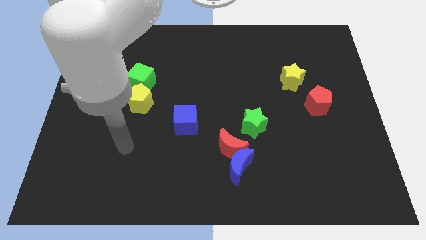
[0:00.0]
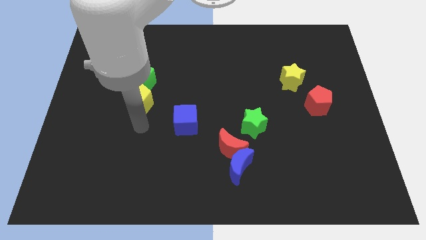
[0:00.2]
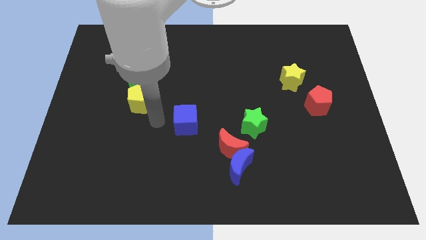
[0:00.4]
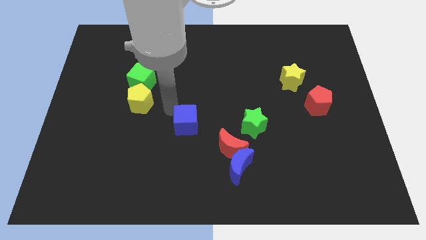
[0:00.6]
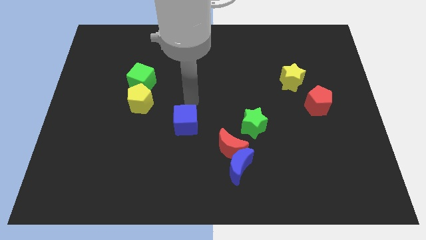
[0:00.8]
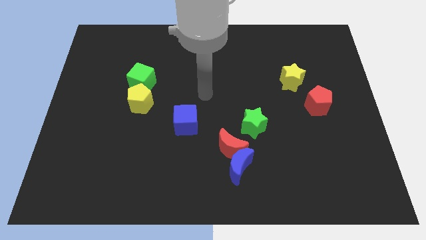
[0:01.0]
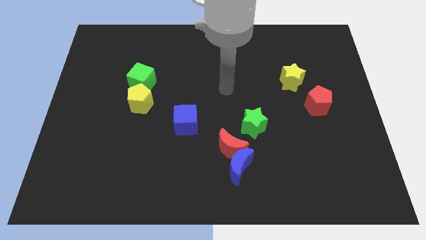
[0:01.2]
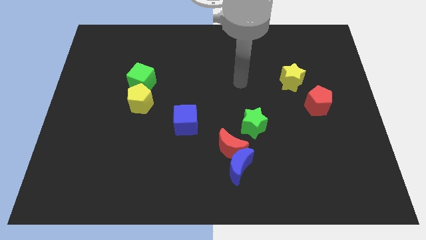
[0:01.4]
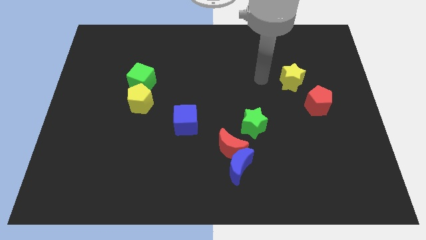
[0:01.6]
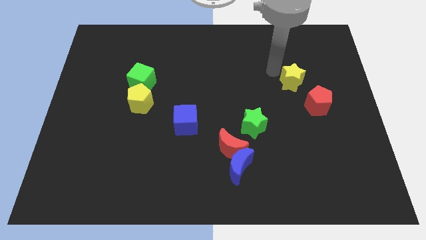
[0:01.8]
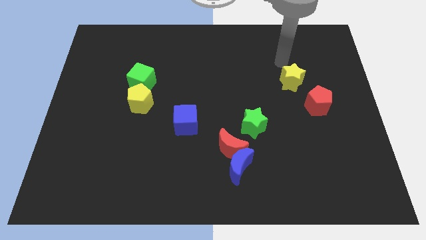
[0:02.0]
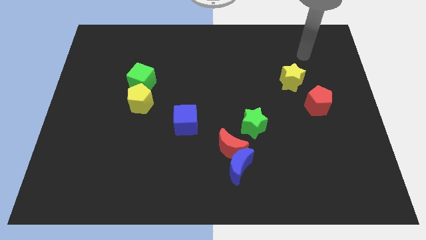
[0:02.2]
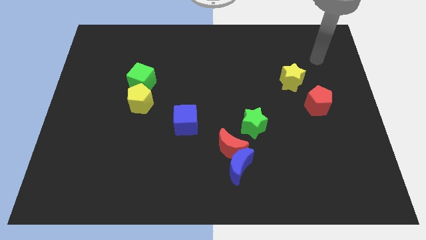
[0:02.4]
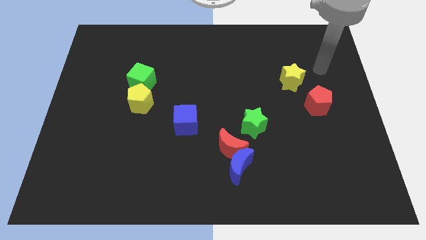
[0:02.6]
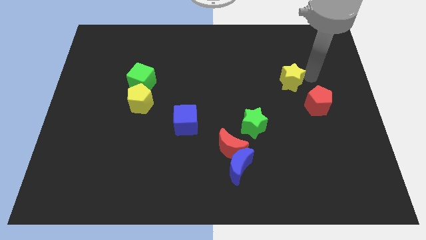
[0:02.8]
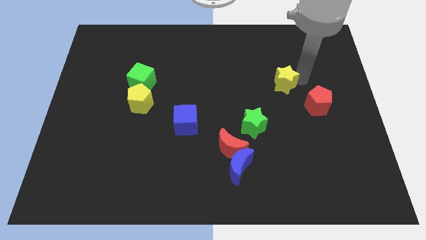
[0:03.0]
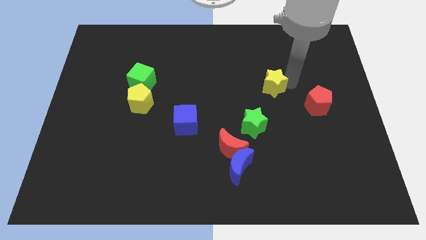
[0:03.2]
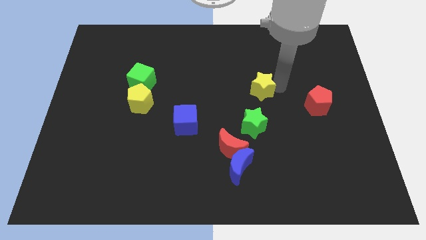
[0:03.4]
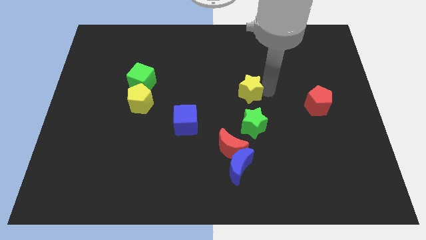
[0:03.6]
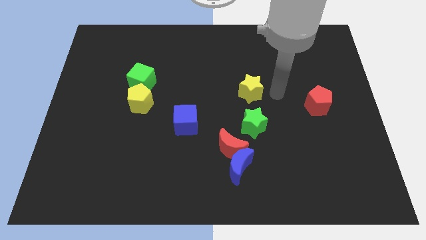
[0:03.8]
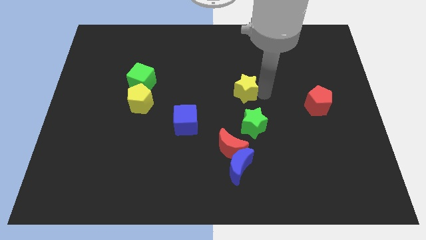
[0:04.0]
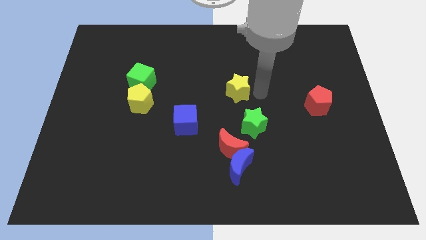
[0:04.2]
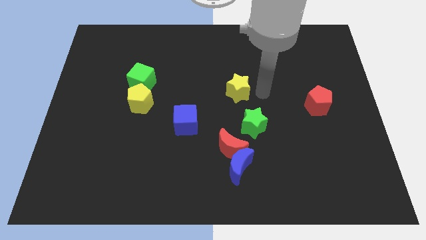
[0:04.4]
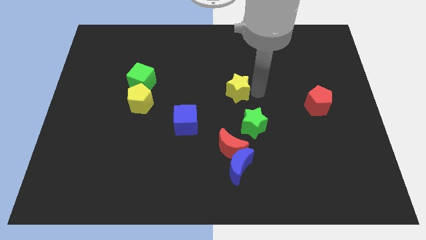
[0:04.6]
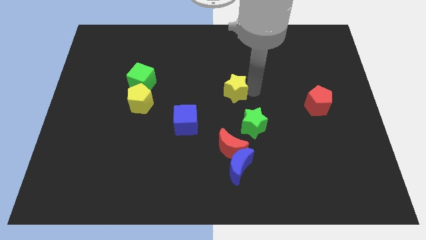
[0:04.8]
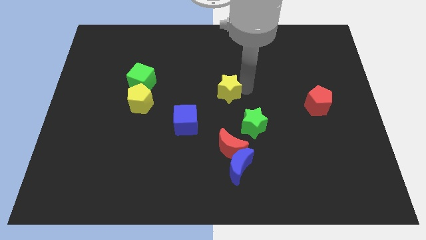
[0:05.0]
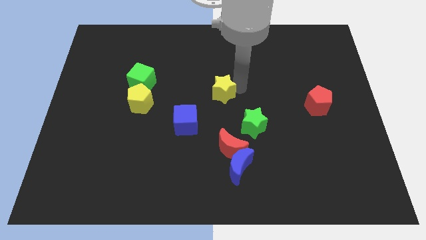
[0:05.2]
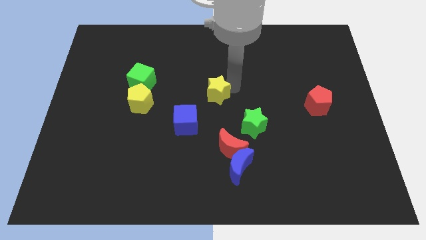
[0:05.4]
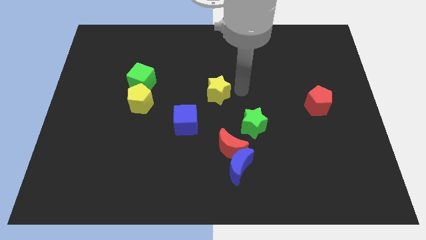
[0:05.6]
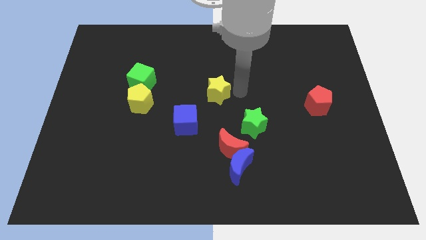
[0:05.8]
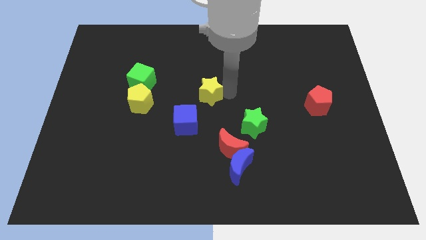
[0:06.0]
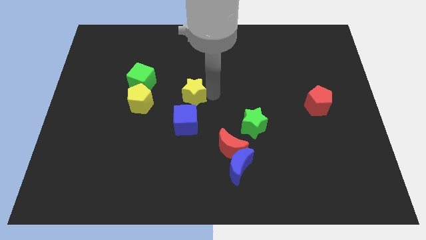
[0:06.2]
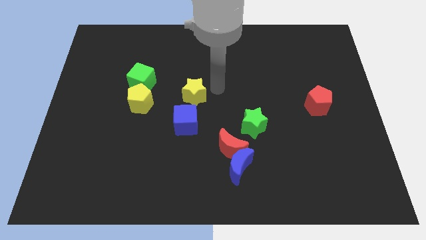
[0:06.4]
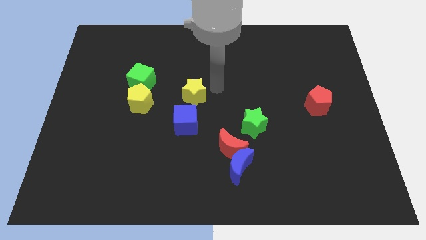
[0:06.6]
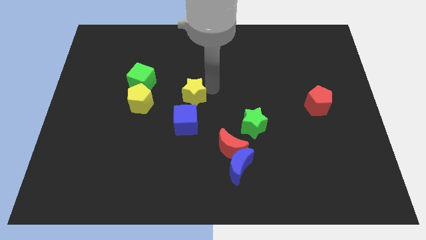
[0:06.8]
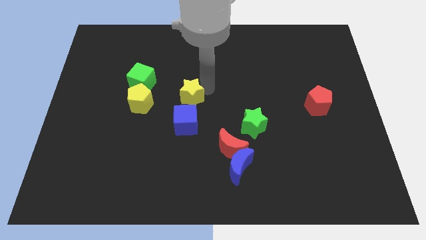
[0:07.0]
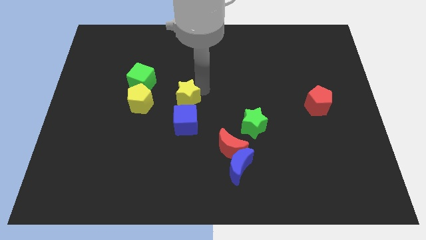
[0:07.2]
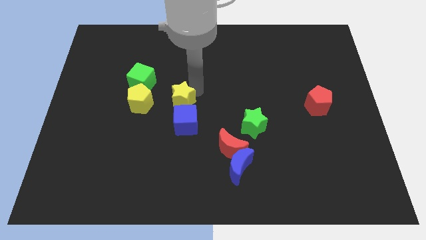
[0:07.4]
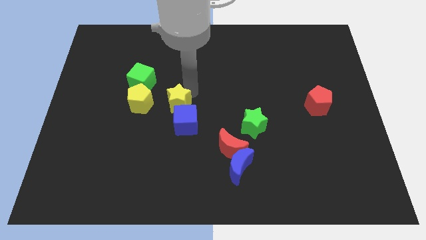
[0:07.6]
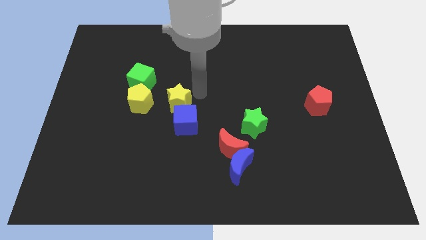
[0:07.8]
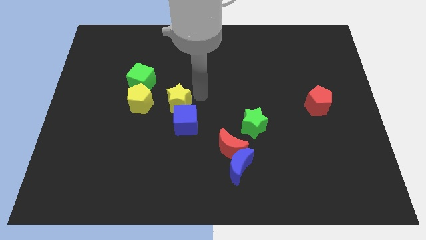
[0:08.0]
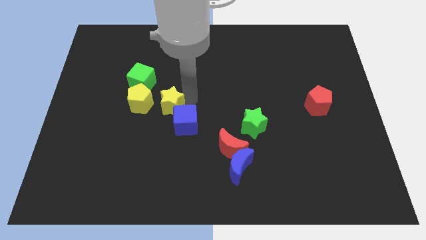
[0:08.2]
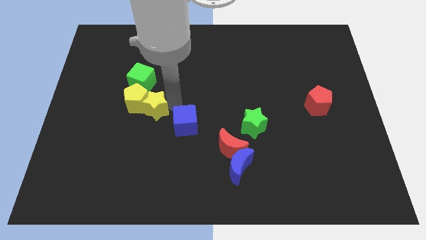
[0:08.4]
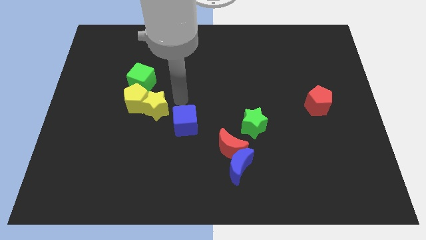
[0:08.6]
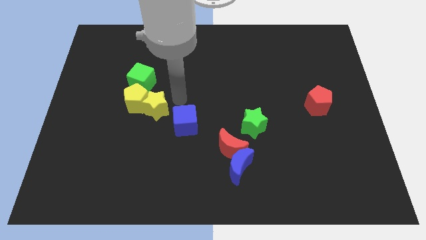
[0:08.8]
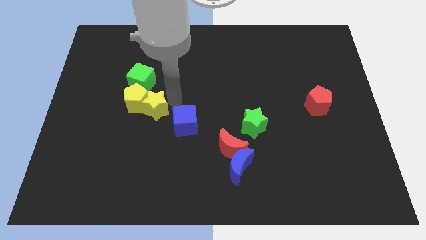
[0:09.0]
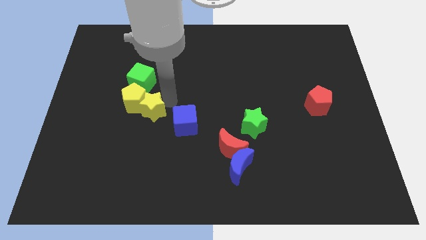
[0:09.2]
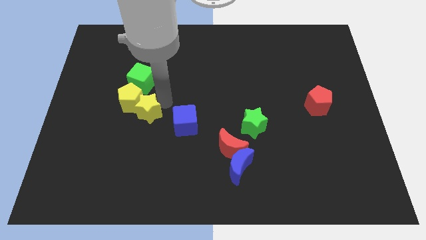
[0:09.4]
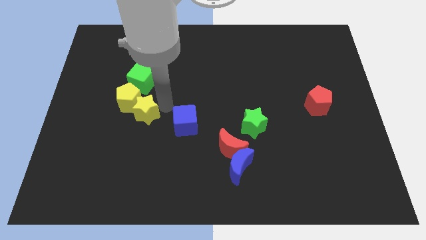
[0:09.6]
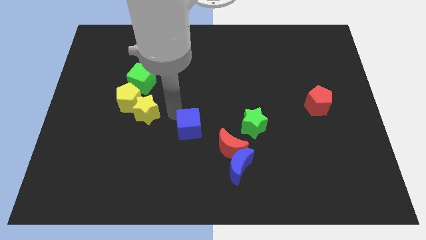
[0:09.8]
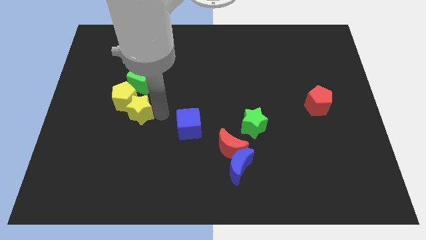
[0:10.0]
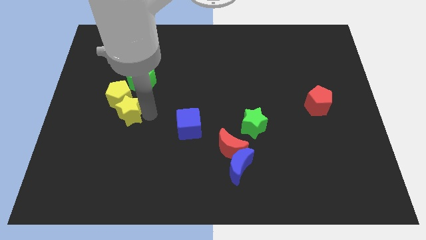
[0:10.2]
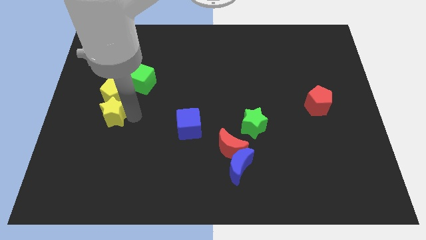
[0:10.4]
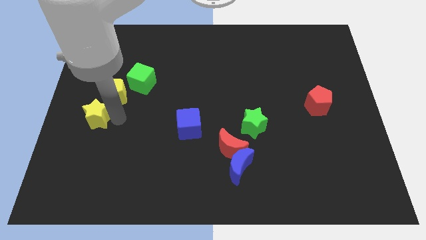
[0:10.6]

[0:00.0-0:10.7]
put the yellow star to the center left

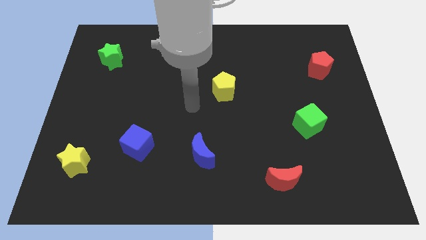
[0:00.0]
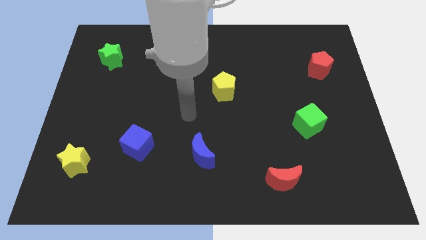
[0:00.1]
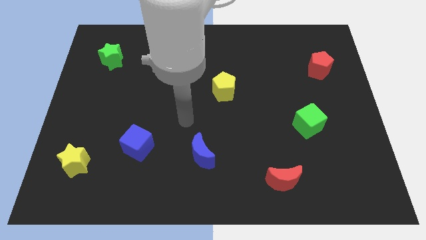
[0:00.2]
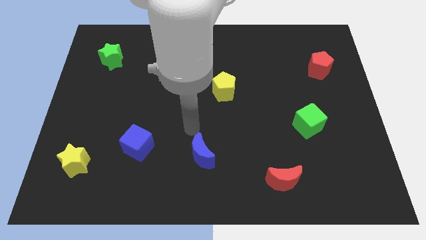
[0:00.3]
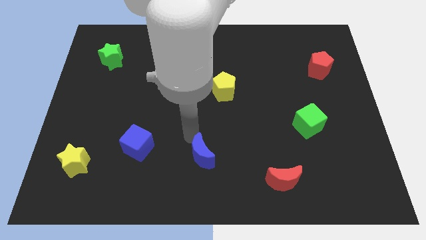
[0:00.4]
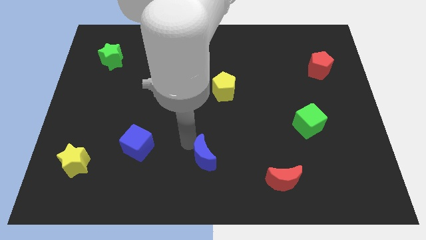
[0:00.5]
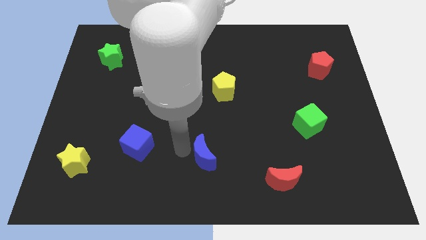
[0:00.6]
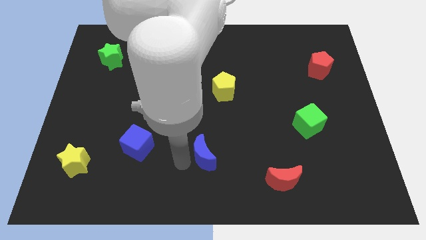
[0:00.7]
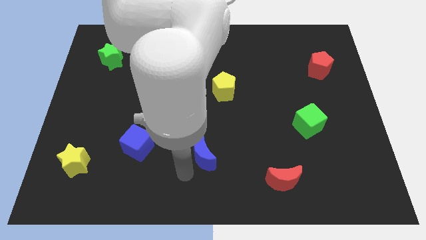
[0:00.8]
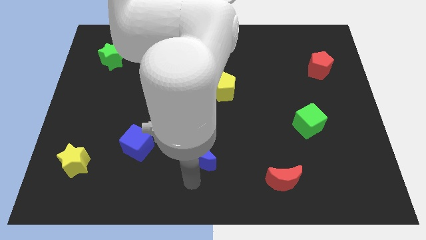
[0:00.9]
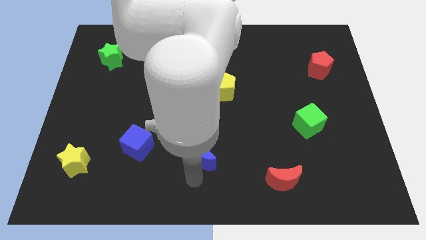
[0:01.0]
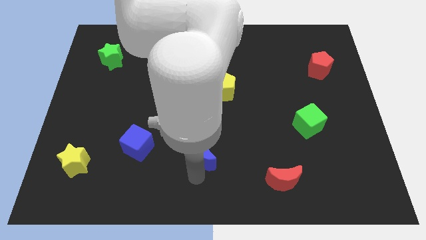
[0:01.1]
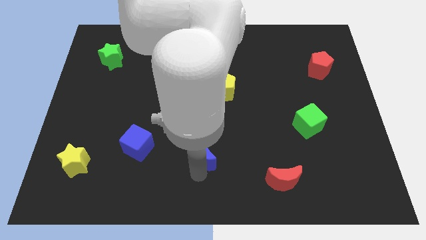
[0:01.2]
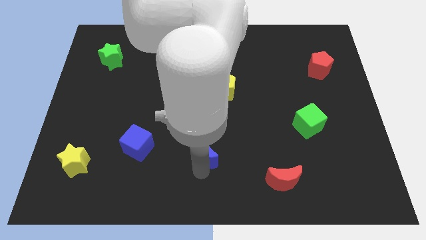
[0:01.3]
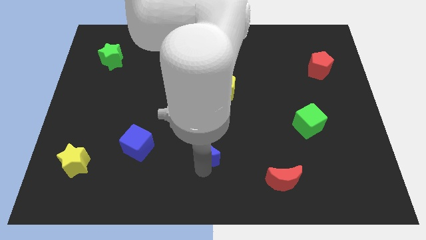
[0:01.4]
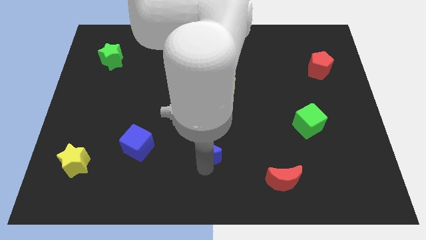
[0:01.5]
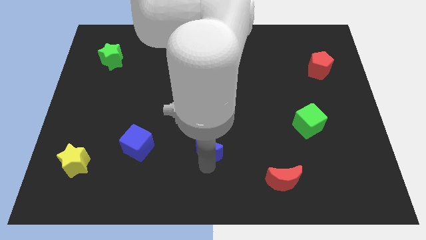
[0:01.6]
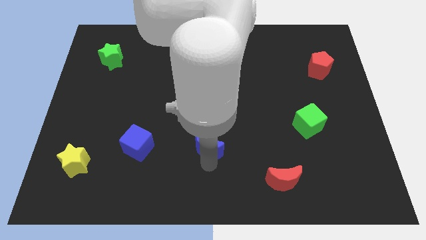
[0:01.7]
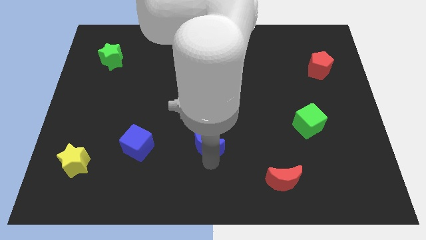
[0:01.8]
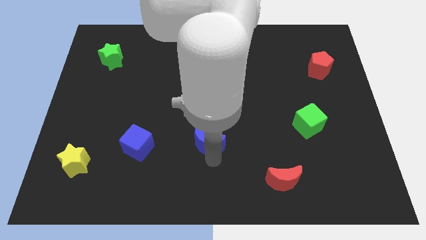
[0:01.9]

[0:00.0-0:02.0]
put the blue moon to the center of the board
